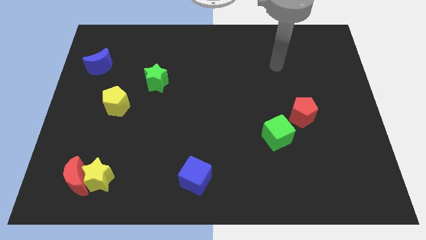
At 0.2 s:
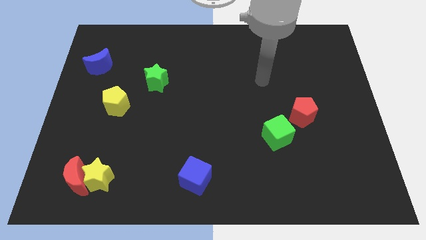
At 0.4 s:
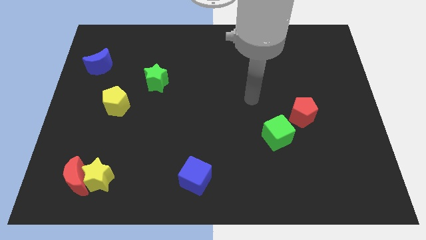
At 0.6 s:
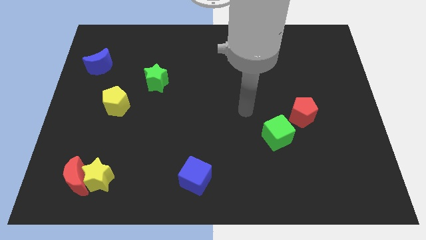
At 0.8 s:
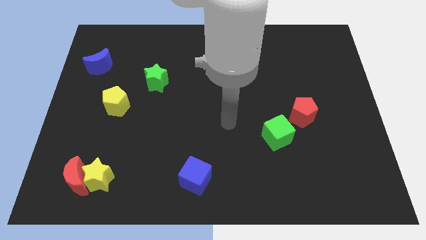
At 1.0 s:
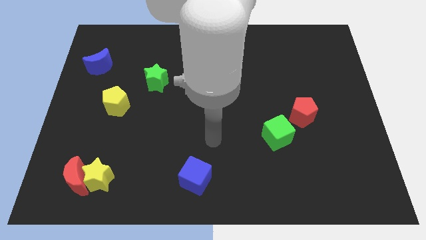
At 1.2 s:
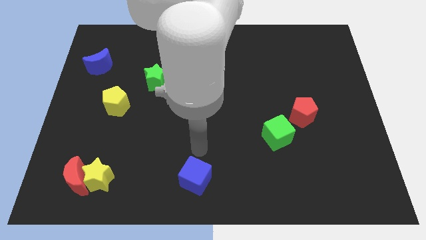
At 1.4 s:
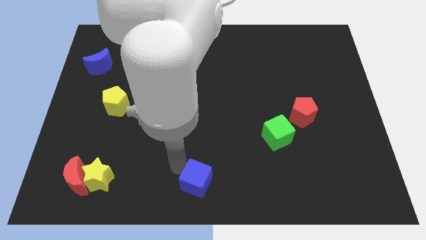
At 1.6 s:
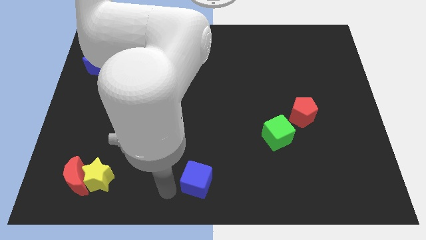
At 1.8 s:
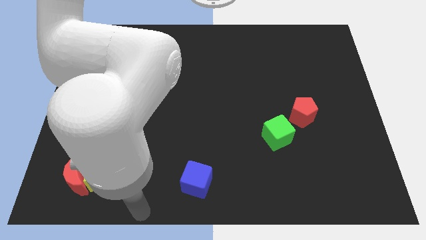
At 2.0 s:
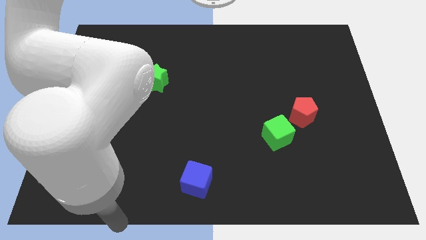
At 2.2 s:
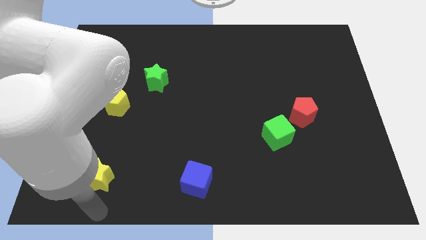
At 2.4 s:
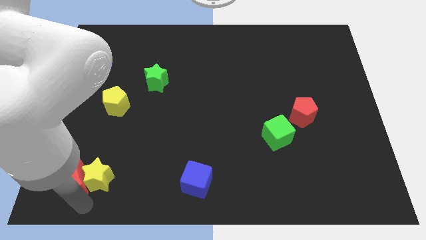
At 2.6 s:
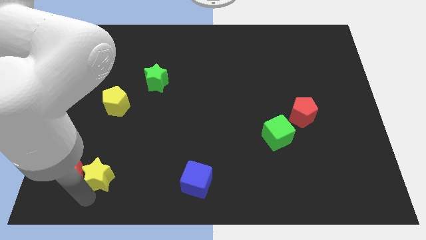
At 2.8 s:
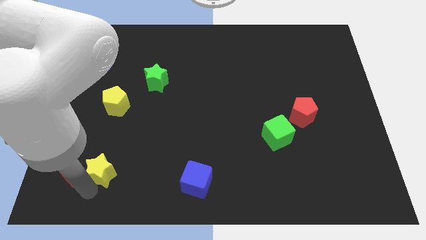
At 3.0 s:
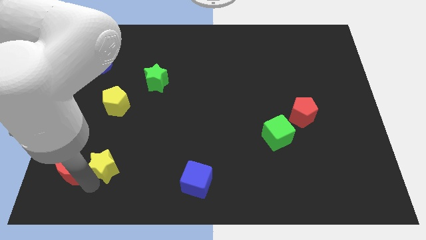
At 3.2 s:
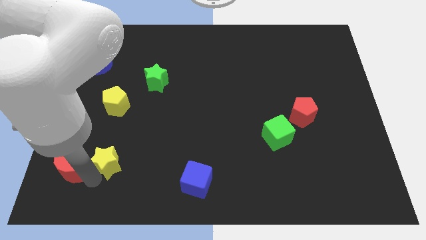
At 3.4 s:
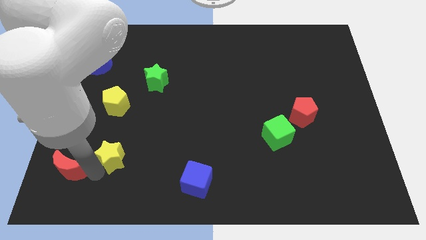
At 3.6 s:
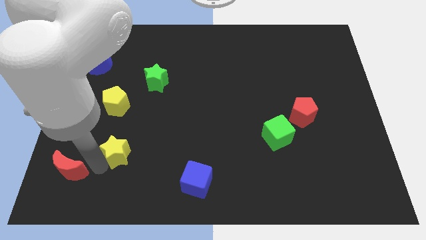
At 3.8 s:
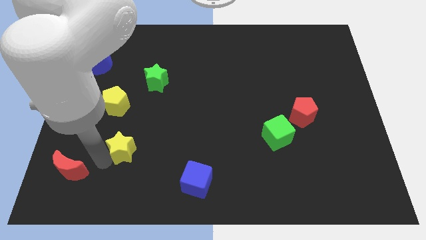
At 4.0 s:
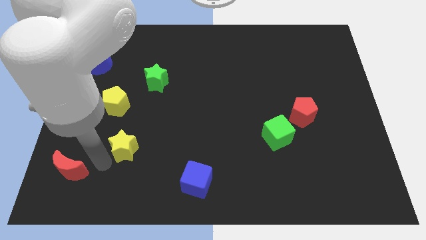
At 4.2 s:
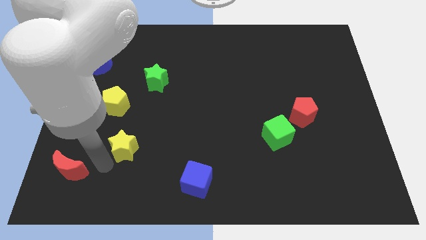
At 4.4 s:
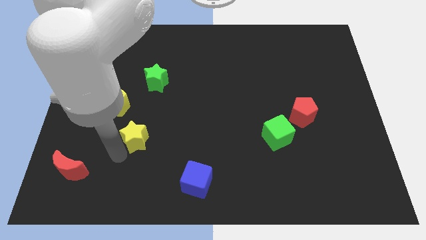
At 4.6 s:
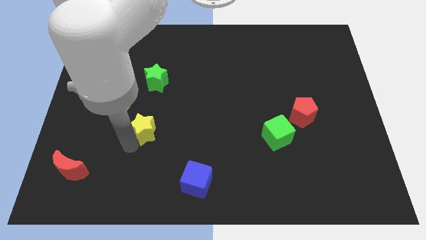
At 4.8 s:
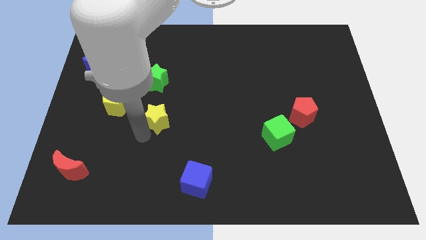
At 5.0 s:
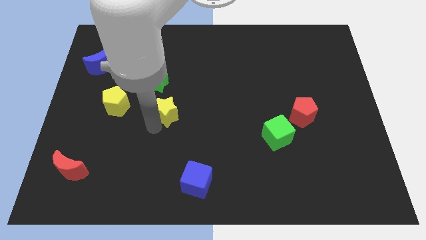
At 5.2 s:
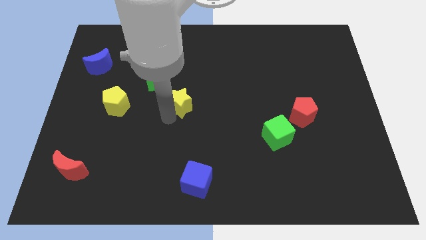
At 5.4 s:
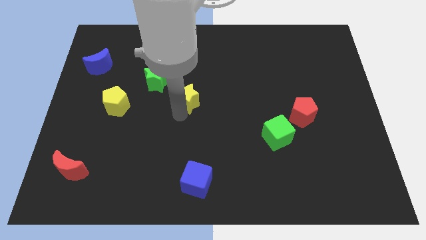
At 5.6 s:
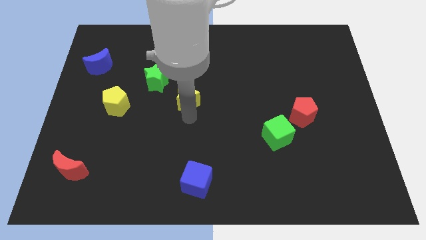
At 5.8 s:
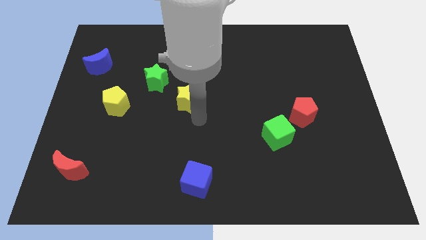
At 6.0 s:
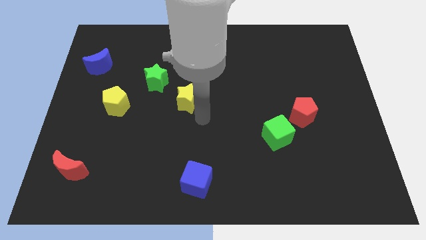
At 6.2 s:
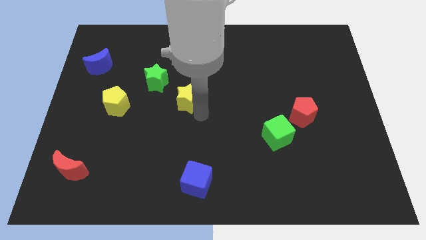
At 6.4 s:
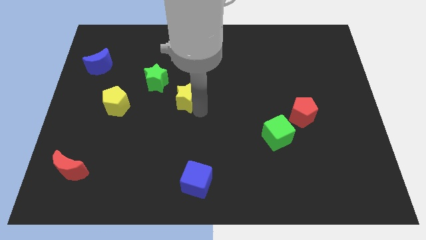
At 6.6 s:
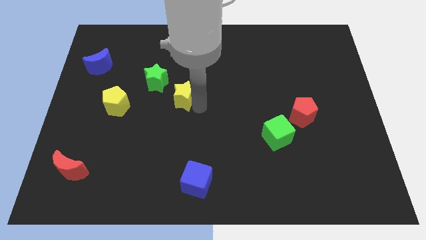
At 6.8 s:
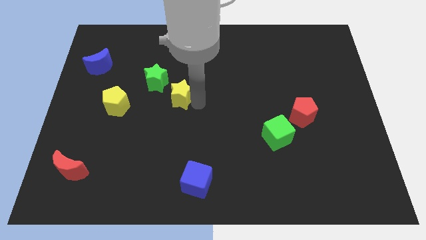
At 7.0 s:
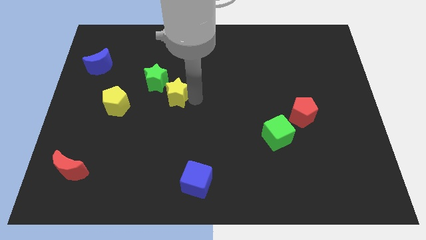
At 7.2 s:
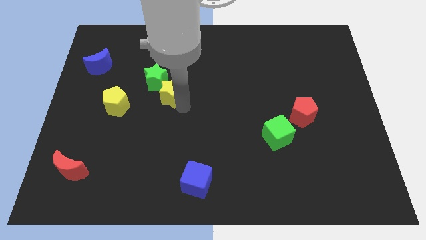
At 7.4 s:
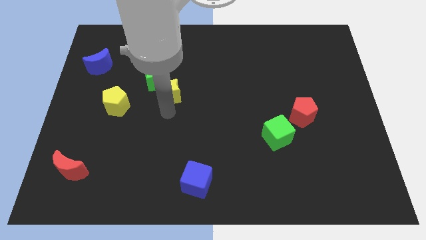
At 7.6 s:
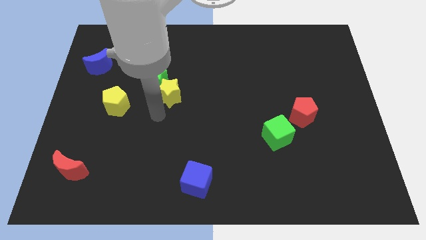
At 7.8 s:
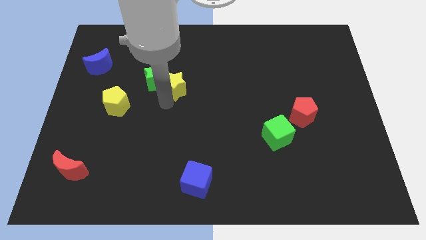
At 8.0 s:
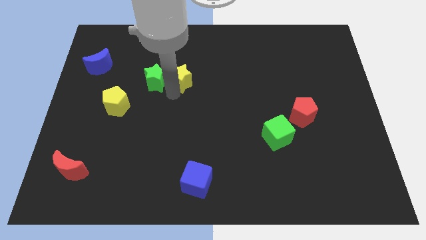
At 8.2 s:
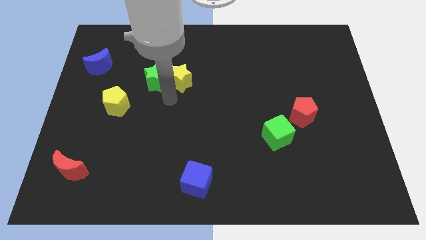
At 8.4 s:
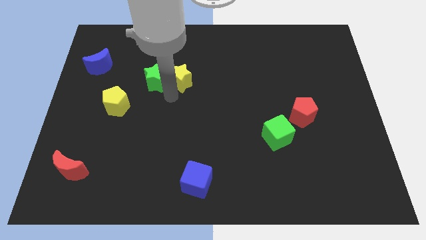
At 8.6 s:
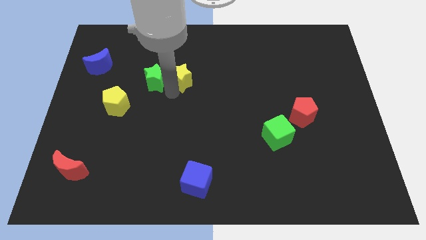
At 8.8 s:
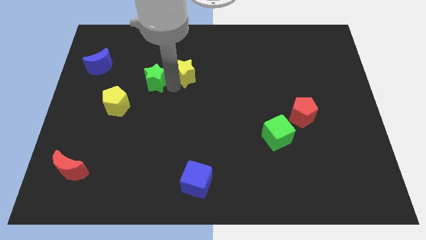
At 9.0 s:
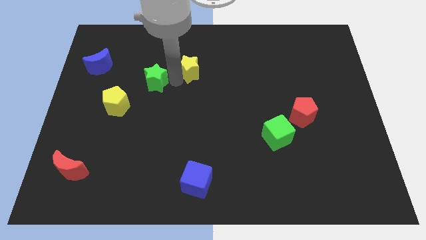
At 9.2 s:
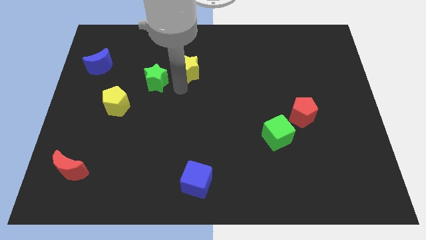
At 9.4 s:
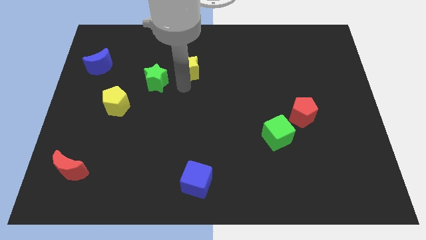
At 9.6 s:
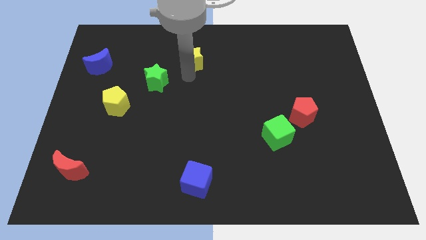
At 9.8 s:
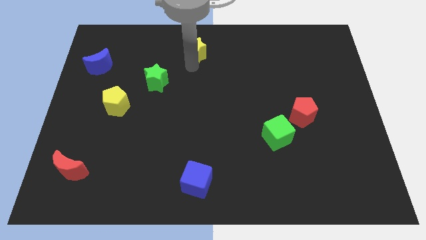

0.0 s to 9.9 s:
move the yellow star to the towards your base

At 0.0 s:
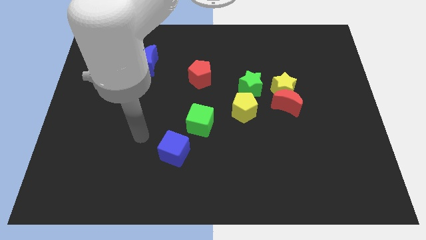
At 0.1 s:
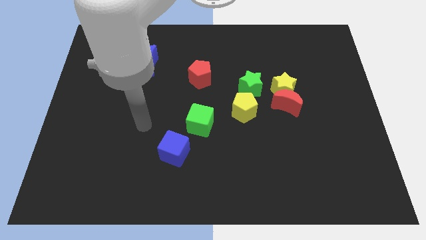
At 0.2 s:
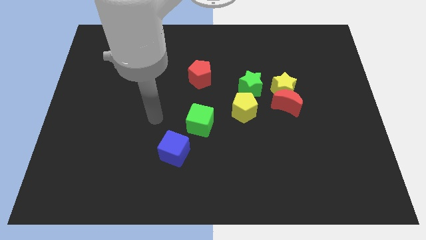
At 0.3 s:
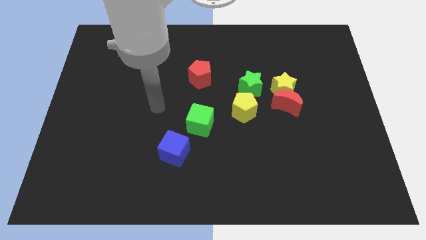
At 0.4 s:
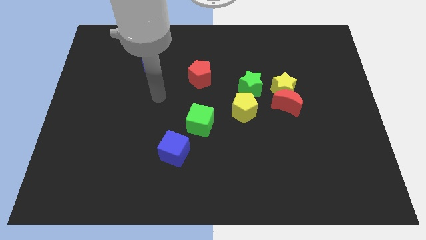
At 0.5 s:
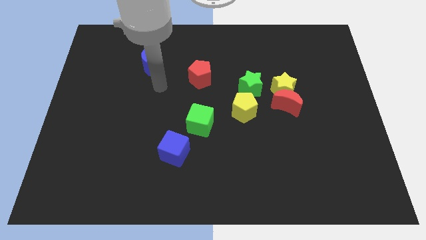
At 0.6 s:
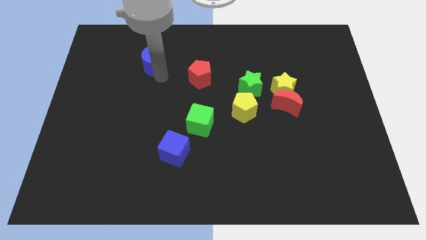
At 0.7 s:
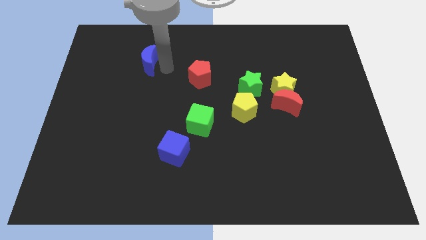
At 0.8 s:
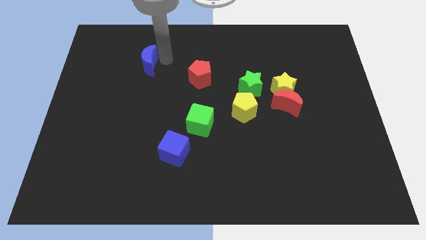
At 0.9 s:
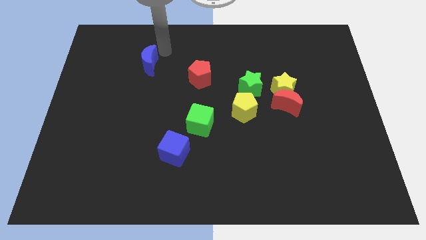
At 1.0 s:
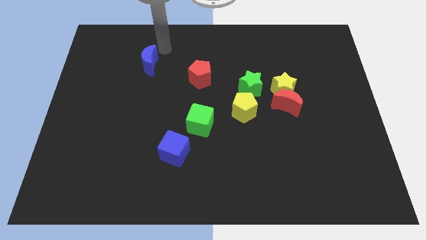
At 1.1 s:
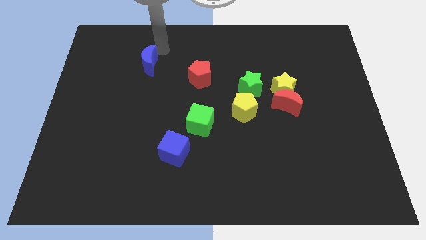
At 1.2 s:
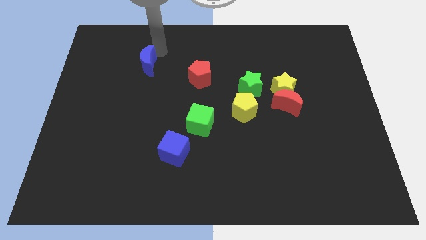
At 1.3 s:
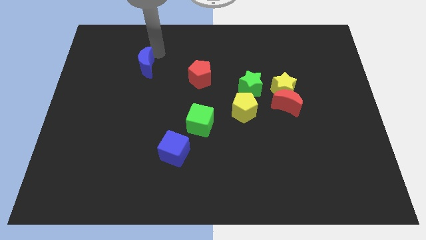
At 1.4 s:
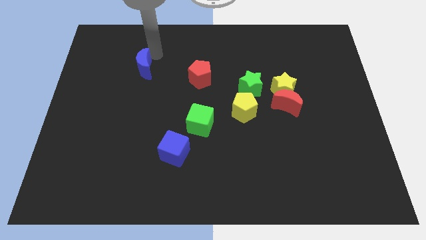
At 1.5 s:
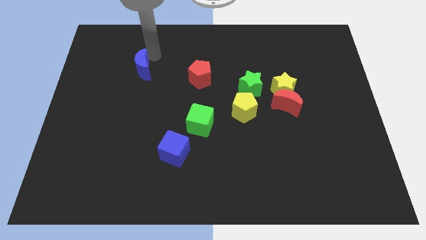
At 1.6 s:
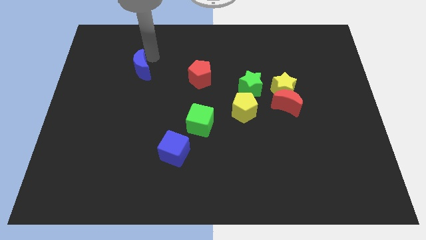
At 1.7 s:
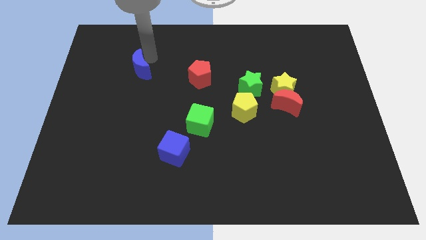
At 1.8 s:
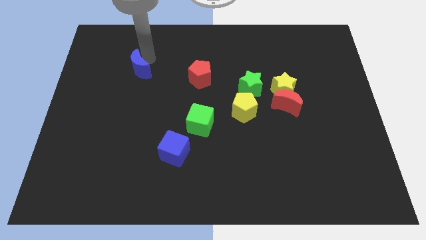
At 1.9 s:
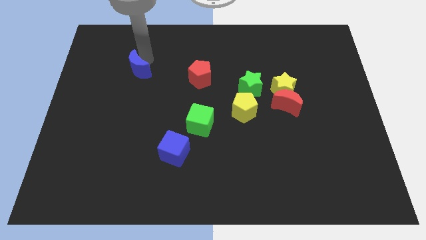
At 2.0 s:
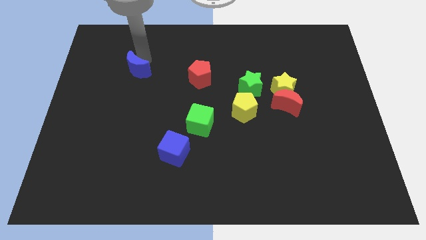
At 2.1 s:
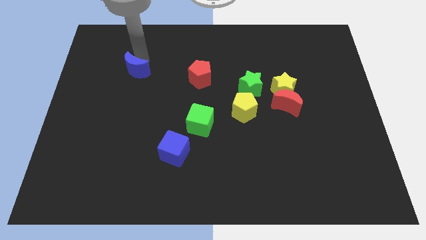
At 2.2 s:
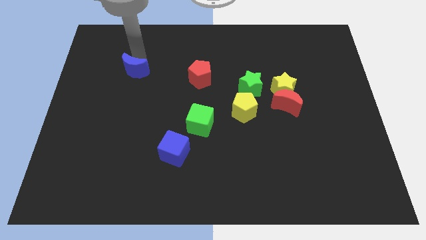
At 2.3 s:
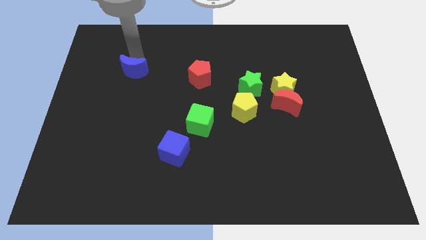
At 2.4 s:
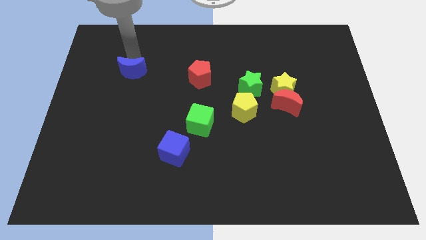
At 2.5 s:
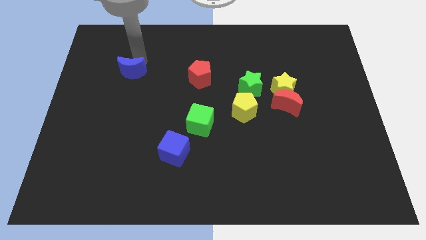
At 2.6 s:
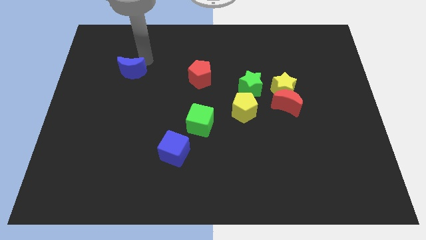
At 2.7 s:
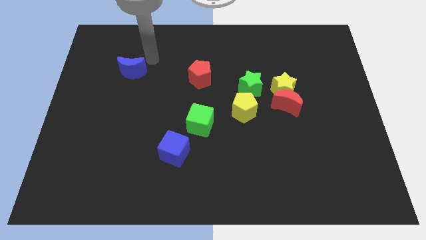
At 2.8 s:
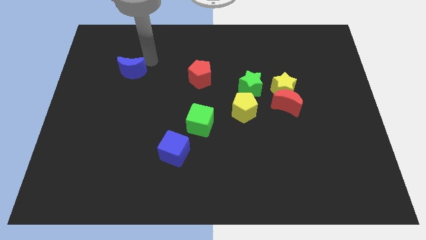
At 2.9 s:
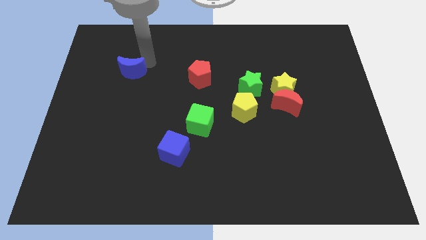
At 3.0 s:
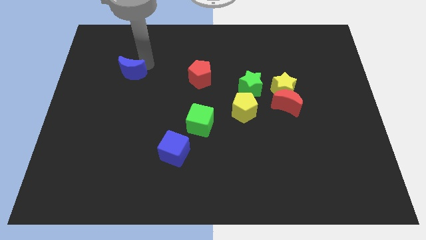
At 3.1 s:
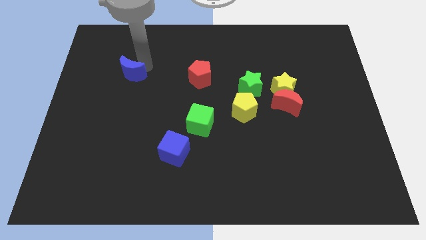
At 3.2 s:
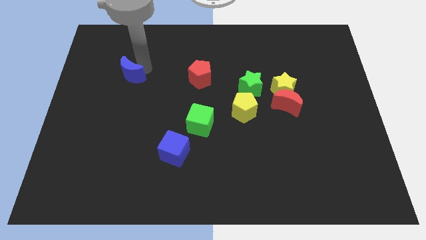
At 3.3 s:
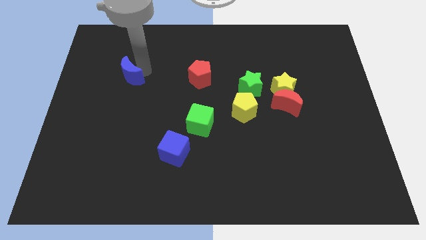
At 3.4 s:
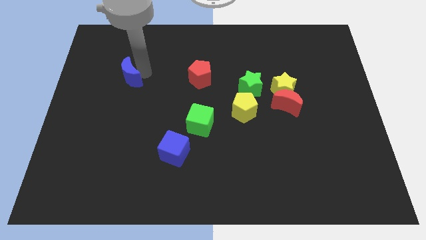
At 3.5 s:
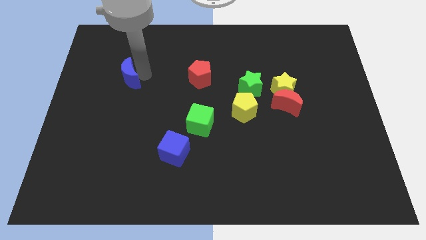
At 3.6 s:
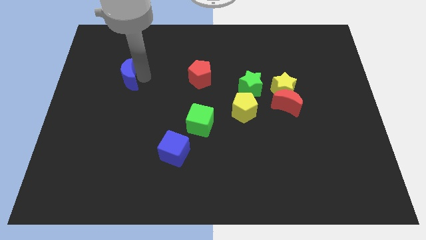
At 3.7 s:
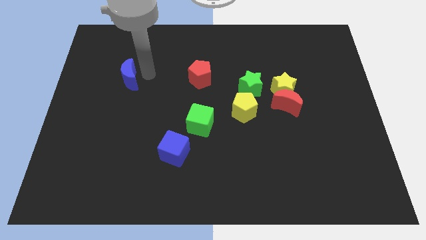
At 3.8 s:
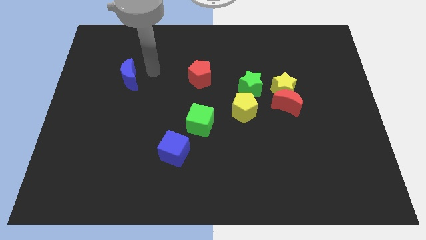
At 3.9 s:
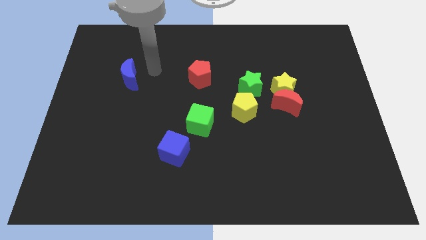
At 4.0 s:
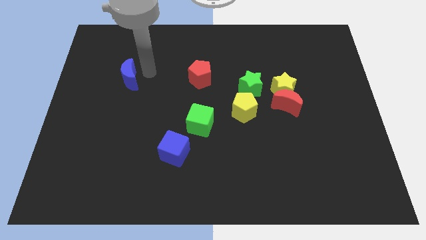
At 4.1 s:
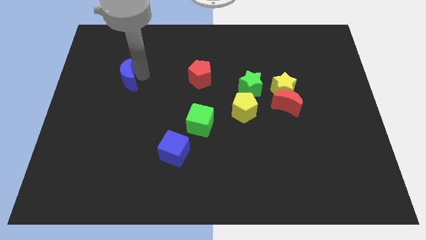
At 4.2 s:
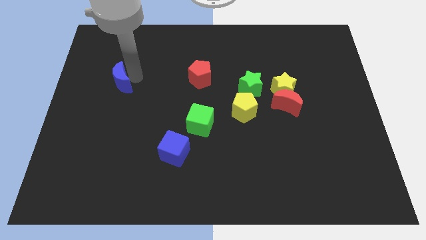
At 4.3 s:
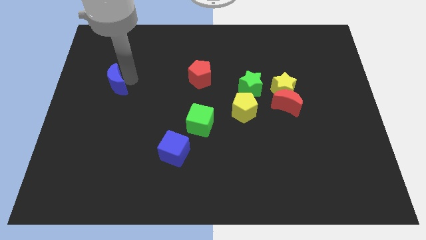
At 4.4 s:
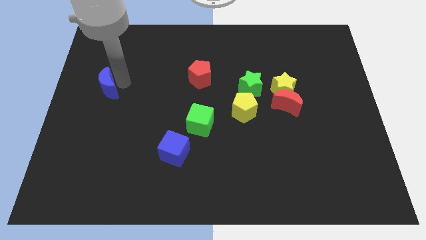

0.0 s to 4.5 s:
slide the blue moon to the center left
